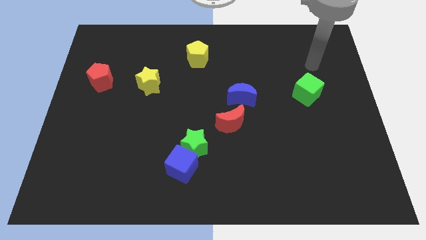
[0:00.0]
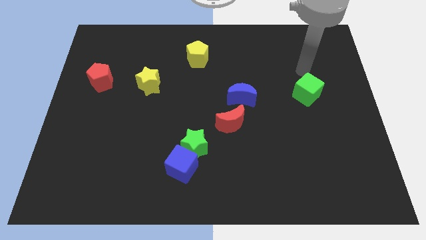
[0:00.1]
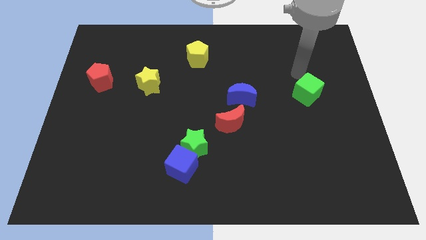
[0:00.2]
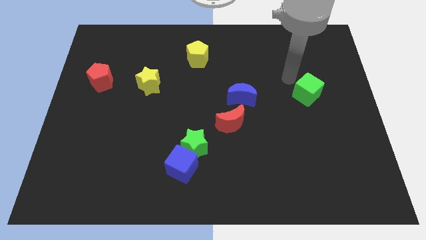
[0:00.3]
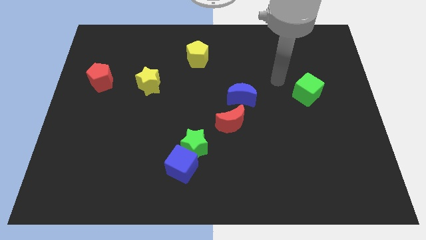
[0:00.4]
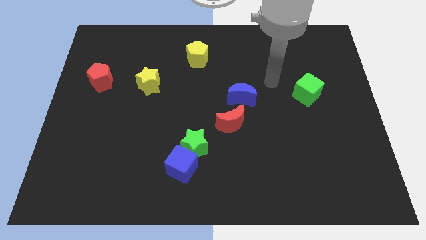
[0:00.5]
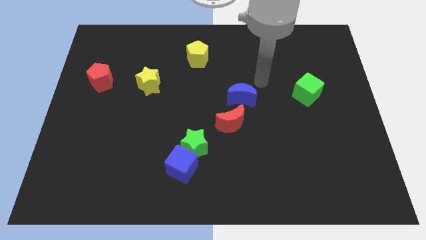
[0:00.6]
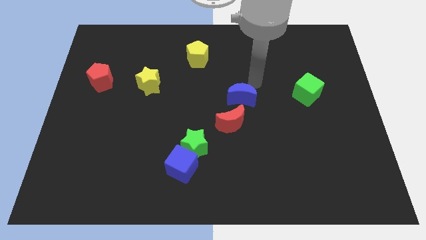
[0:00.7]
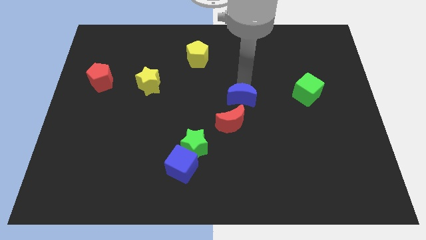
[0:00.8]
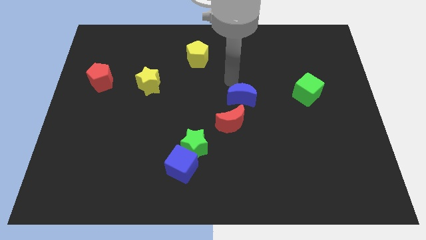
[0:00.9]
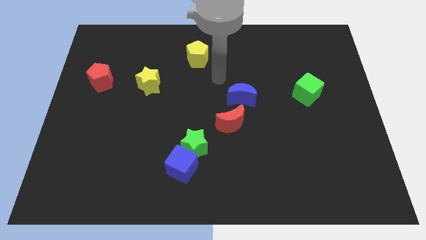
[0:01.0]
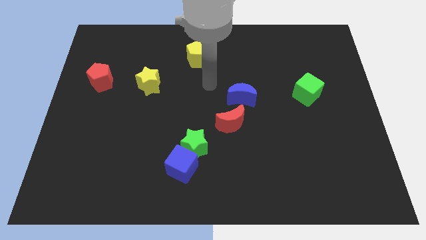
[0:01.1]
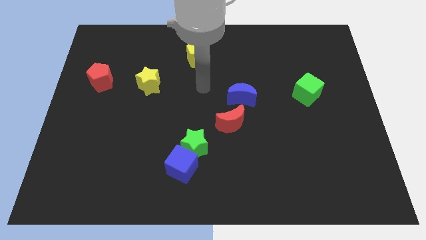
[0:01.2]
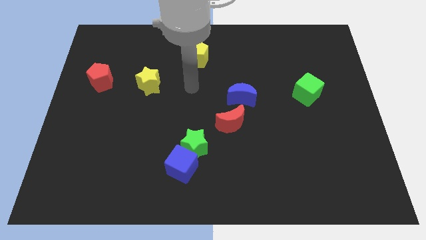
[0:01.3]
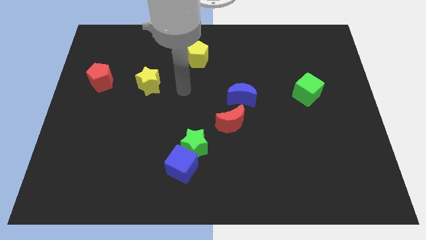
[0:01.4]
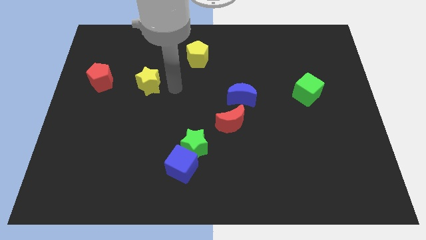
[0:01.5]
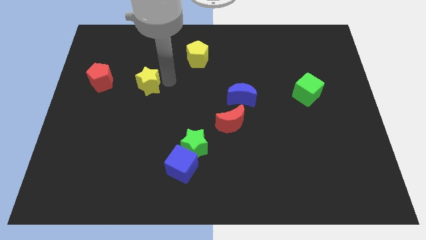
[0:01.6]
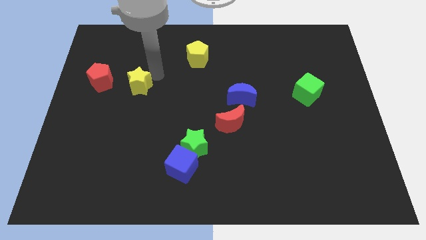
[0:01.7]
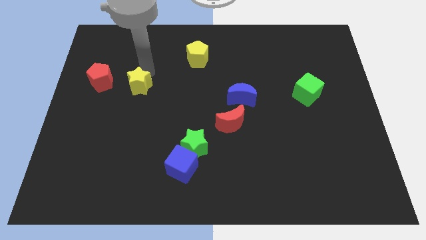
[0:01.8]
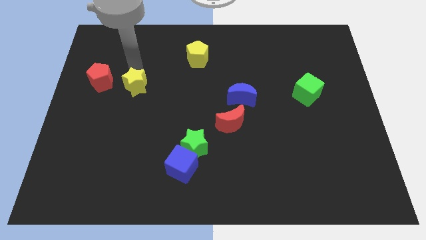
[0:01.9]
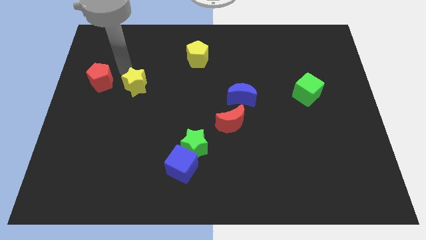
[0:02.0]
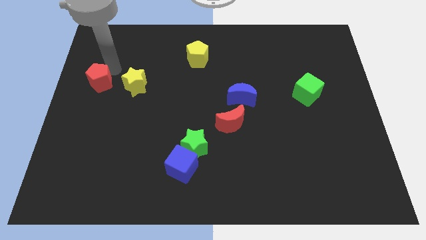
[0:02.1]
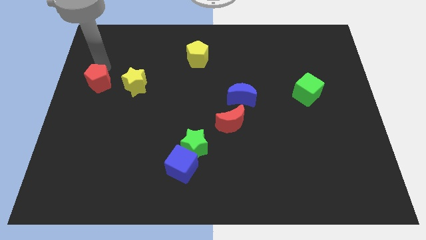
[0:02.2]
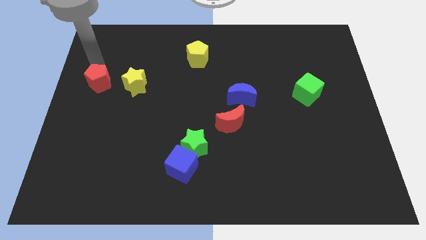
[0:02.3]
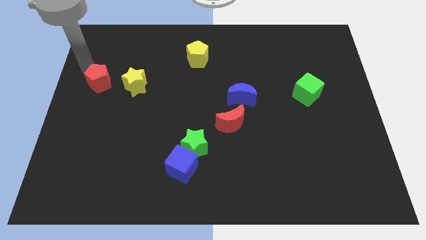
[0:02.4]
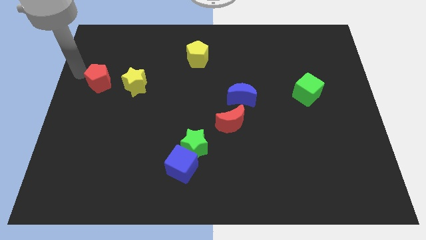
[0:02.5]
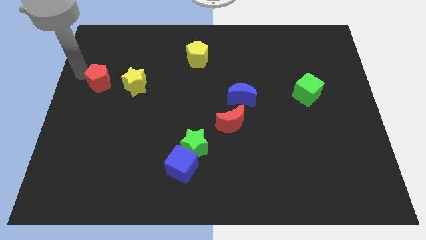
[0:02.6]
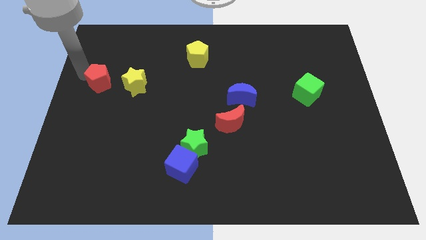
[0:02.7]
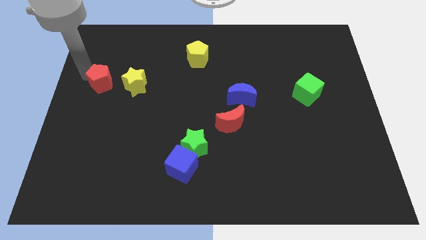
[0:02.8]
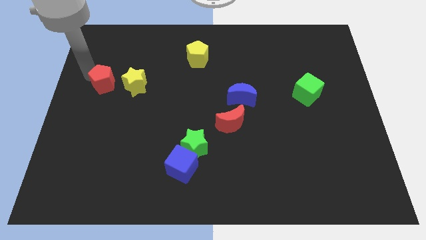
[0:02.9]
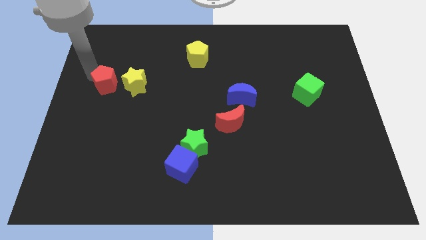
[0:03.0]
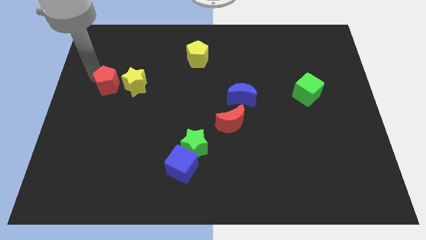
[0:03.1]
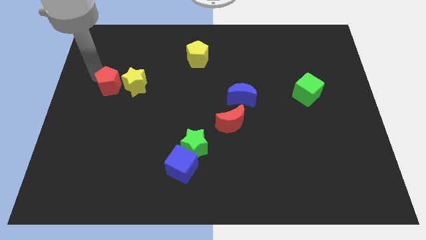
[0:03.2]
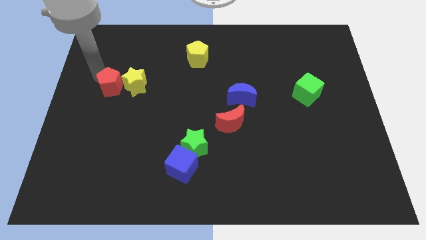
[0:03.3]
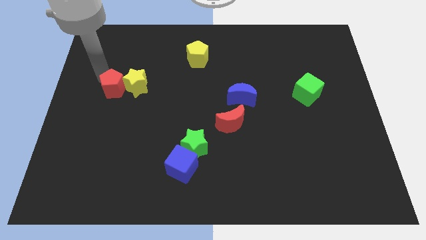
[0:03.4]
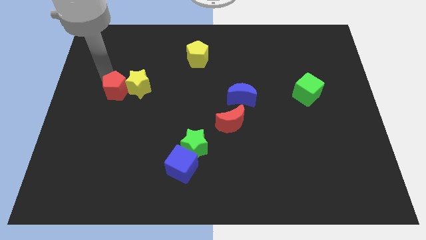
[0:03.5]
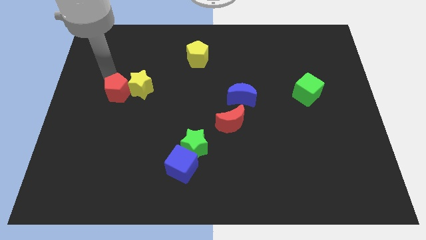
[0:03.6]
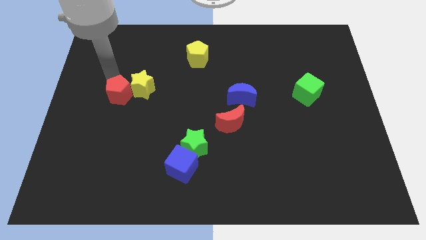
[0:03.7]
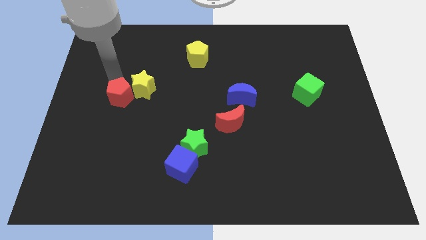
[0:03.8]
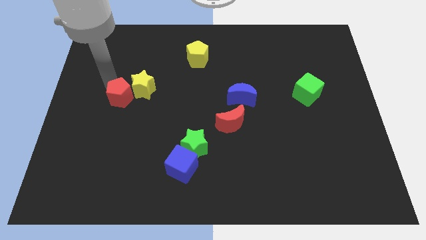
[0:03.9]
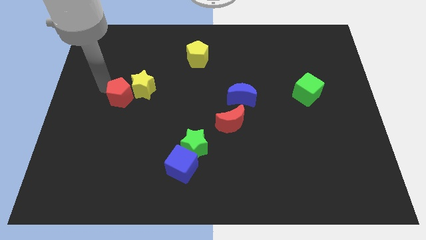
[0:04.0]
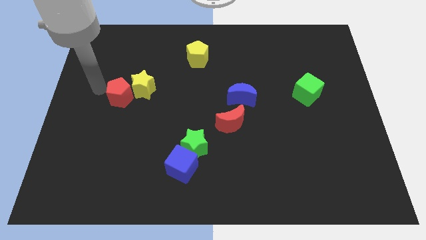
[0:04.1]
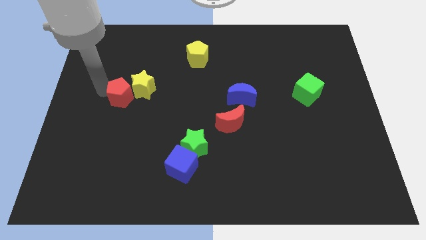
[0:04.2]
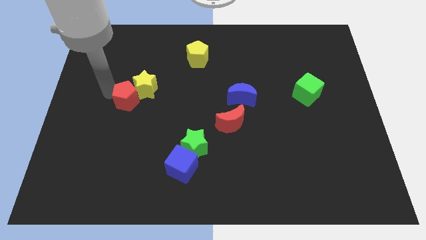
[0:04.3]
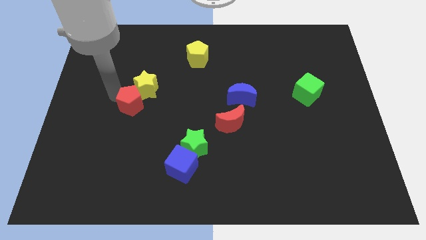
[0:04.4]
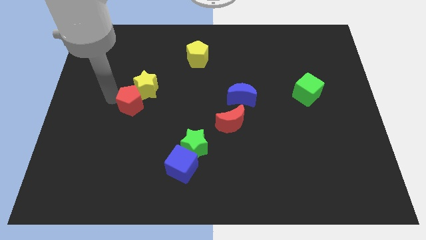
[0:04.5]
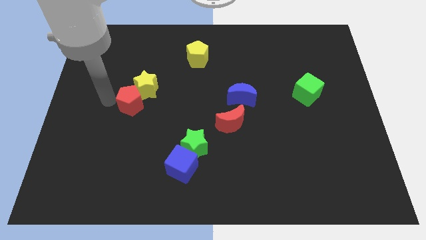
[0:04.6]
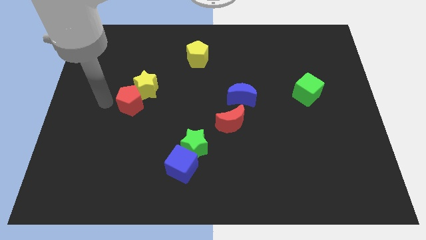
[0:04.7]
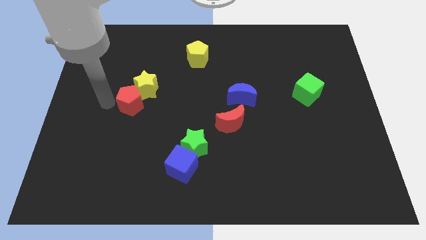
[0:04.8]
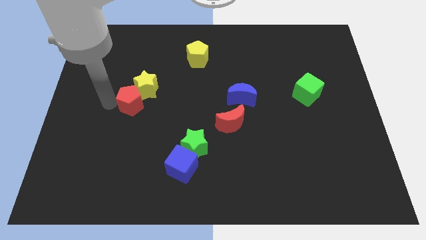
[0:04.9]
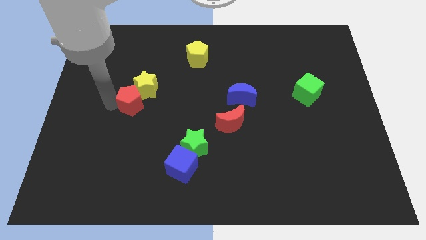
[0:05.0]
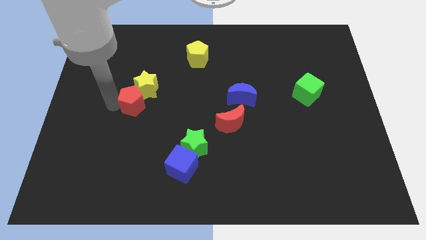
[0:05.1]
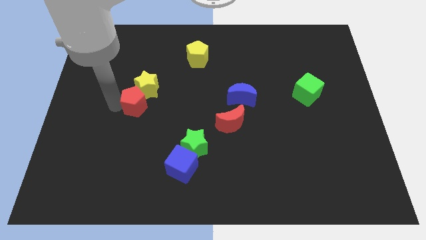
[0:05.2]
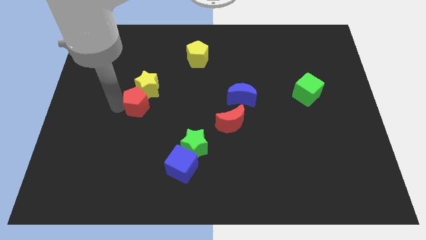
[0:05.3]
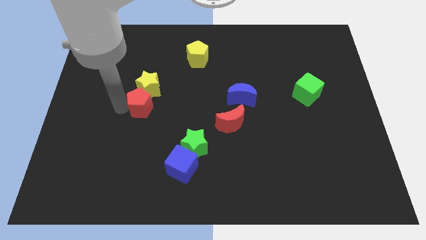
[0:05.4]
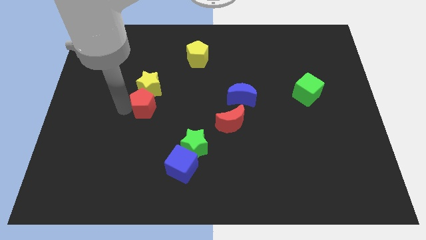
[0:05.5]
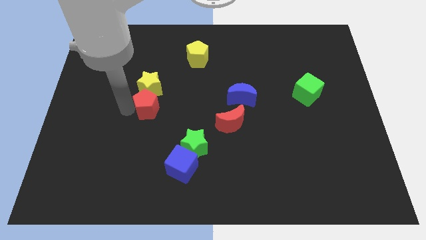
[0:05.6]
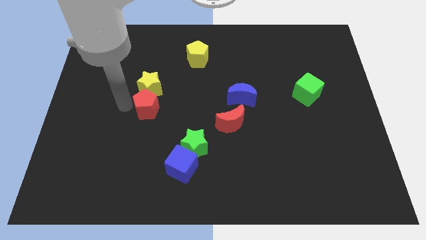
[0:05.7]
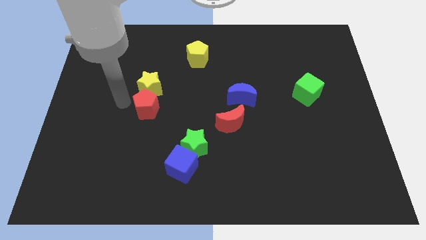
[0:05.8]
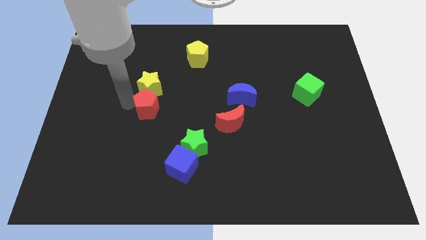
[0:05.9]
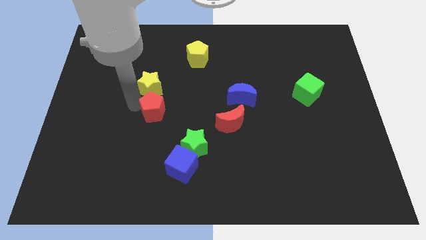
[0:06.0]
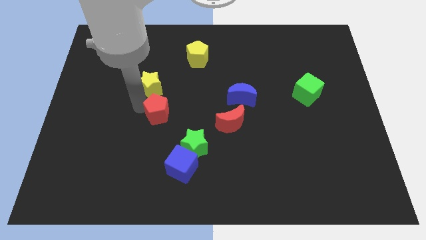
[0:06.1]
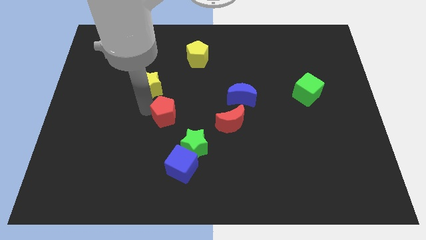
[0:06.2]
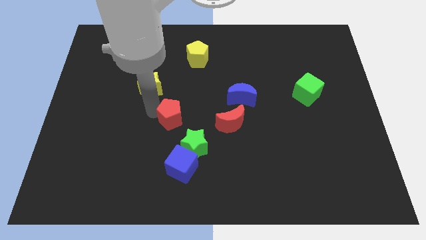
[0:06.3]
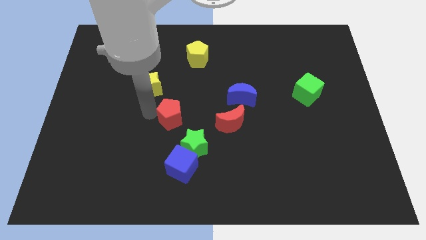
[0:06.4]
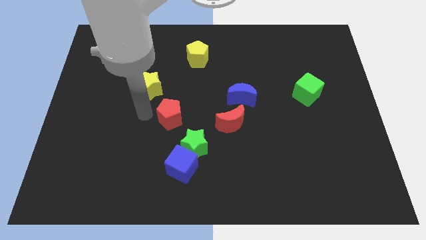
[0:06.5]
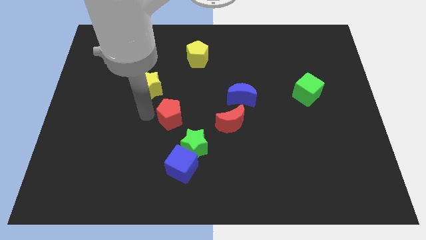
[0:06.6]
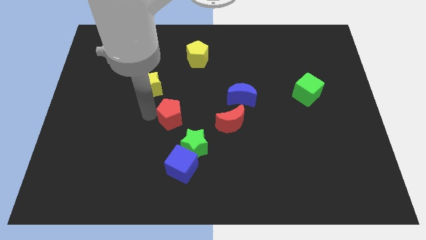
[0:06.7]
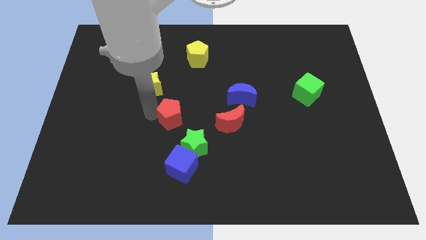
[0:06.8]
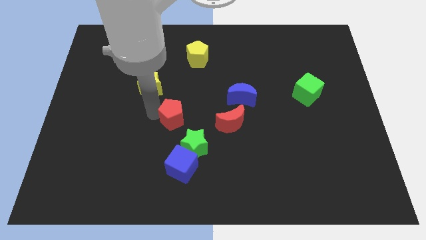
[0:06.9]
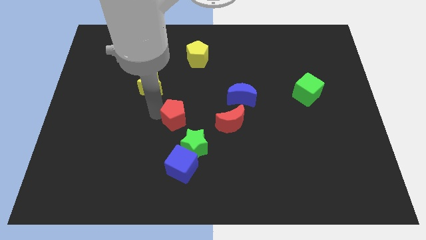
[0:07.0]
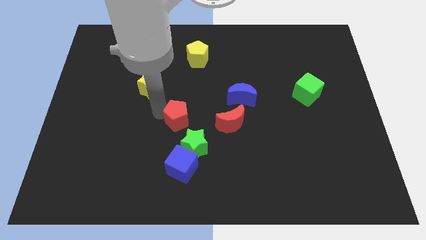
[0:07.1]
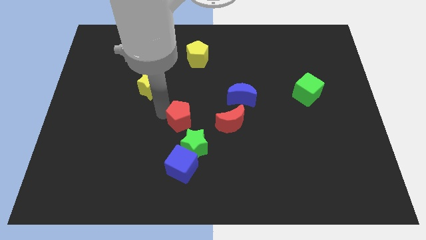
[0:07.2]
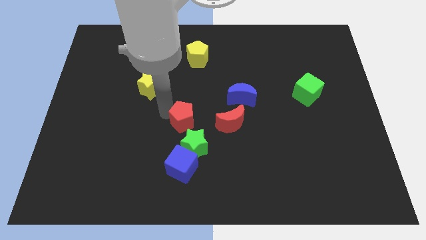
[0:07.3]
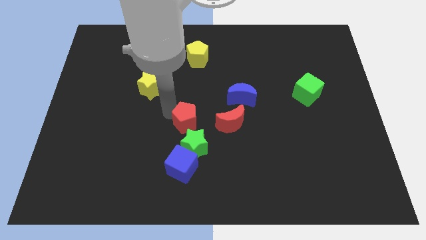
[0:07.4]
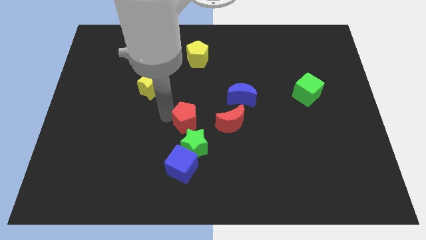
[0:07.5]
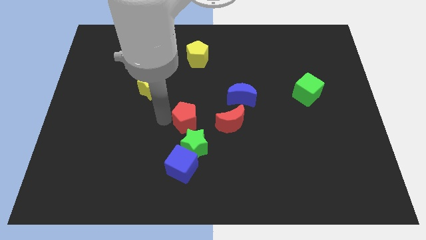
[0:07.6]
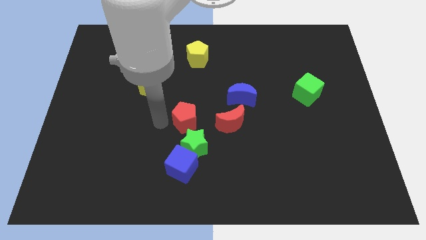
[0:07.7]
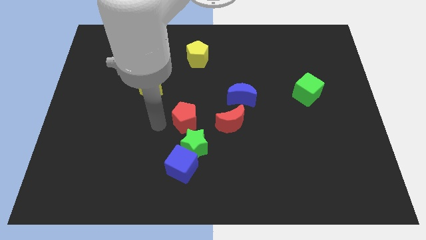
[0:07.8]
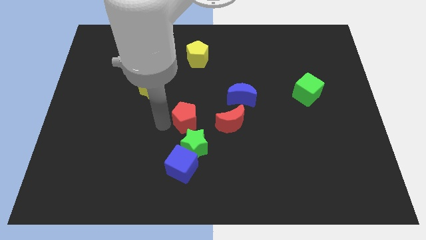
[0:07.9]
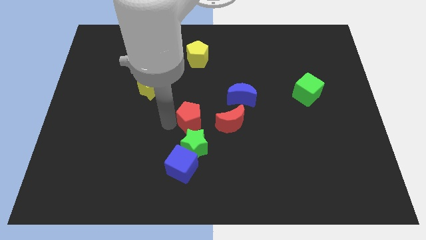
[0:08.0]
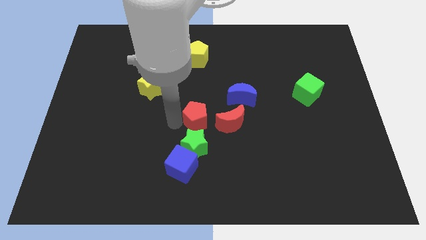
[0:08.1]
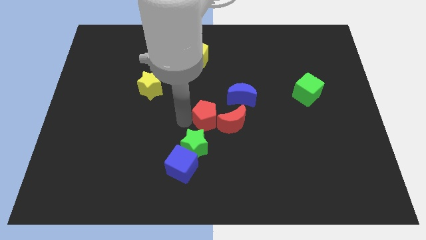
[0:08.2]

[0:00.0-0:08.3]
put the red pentagon towards the red moon
